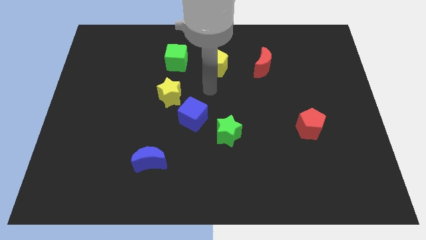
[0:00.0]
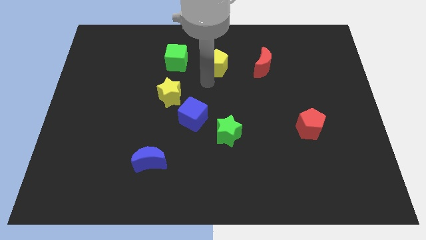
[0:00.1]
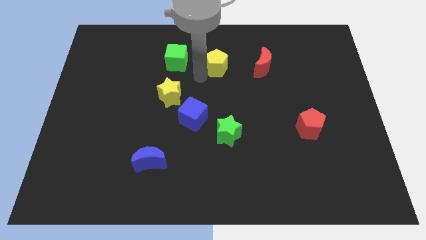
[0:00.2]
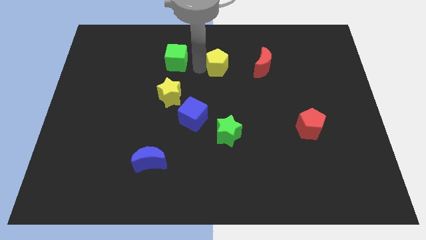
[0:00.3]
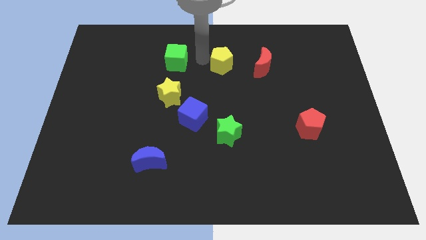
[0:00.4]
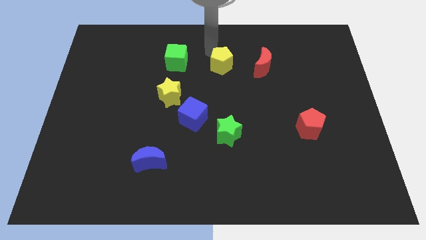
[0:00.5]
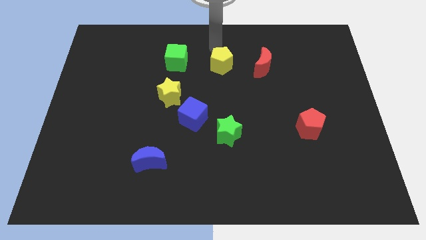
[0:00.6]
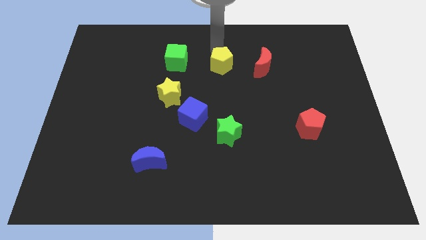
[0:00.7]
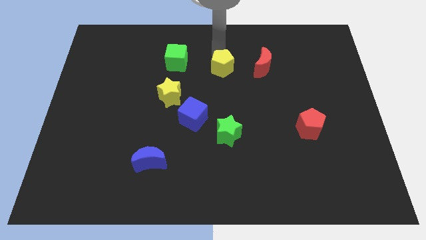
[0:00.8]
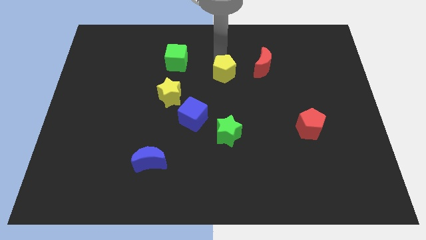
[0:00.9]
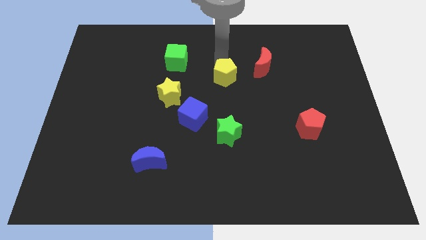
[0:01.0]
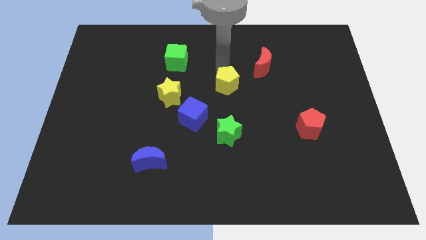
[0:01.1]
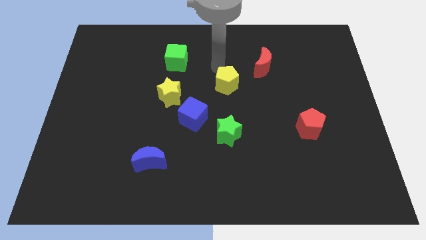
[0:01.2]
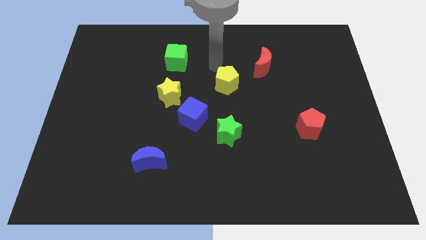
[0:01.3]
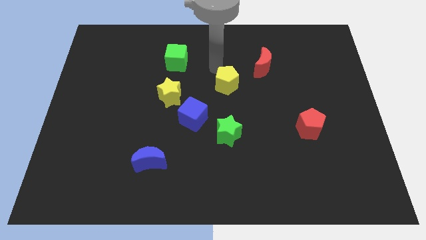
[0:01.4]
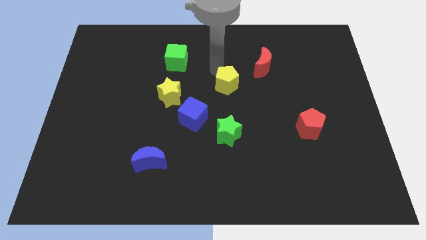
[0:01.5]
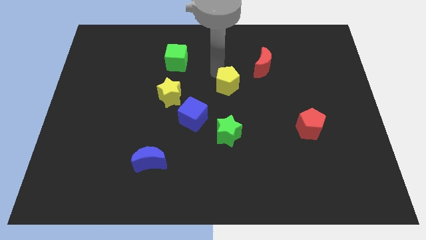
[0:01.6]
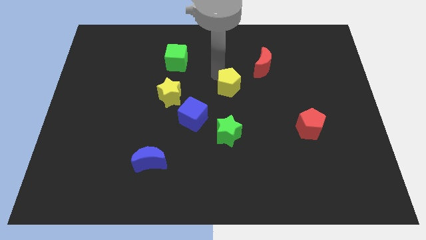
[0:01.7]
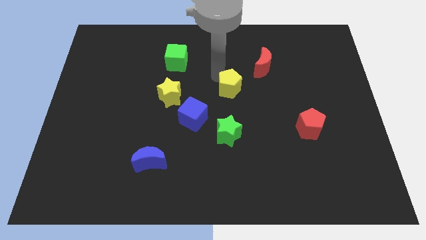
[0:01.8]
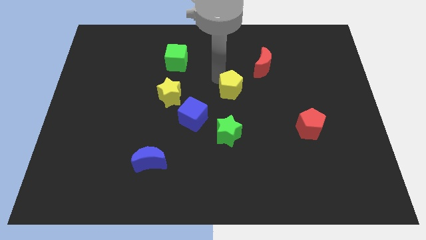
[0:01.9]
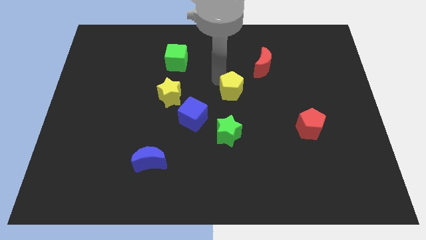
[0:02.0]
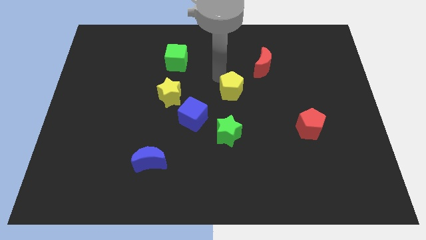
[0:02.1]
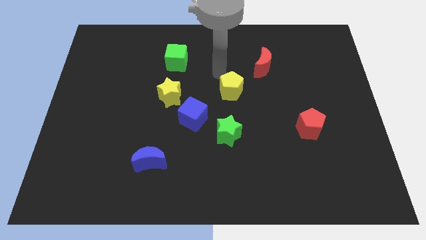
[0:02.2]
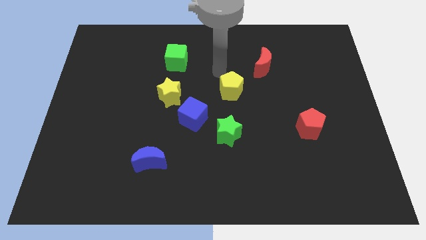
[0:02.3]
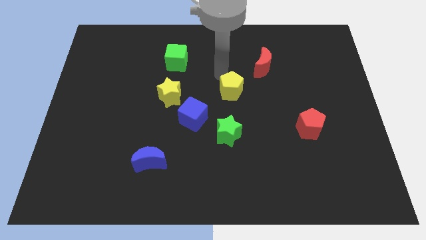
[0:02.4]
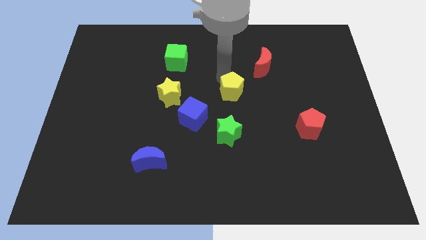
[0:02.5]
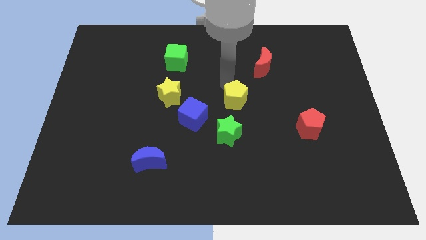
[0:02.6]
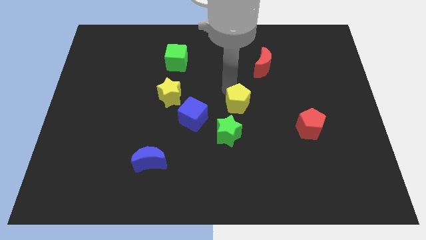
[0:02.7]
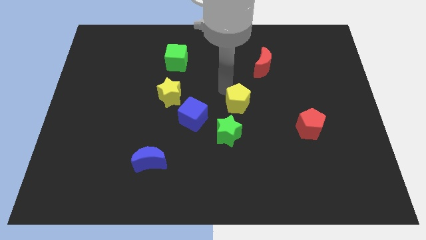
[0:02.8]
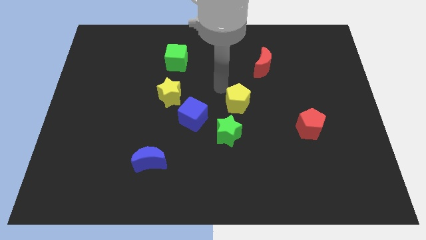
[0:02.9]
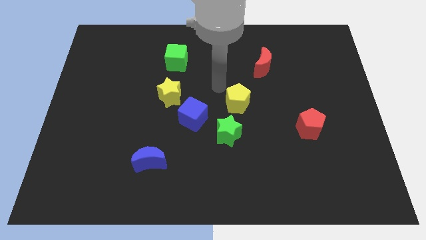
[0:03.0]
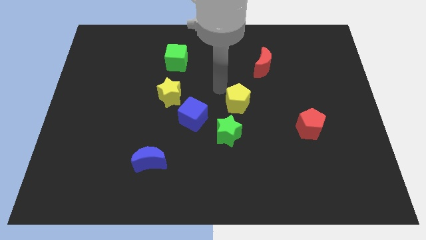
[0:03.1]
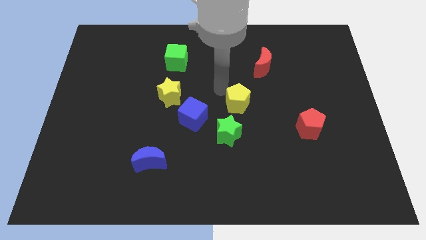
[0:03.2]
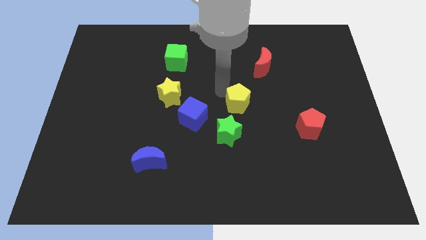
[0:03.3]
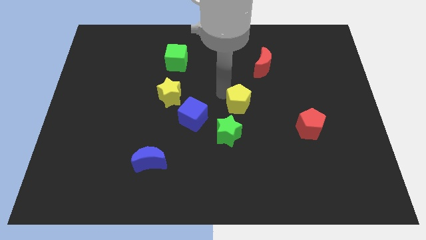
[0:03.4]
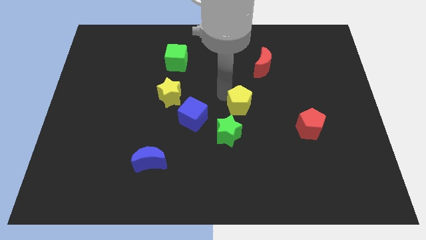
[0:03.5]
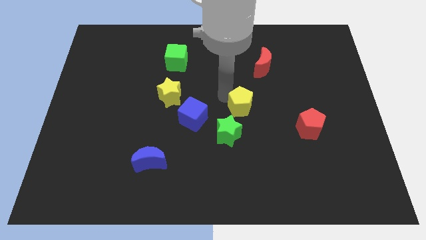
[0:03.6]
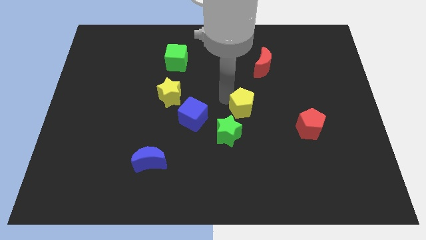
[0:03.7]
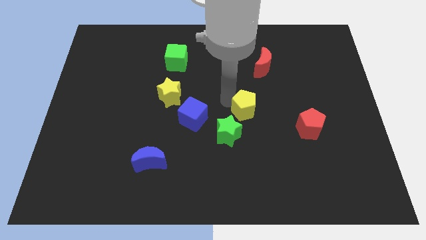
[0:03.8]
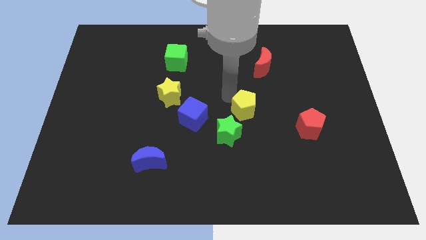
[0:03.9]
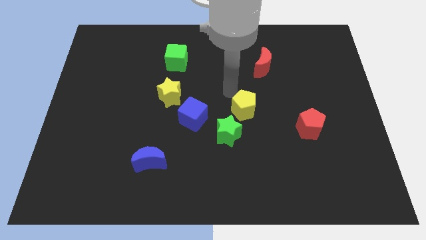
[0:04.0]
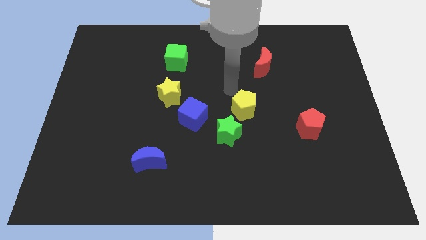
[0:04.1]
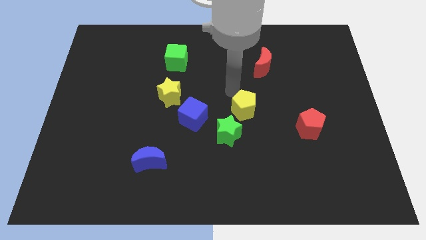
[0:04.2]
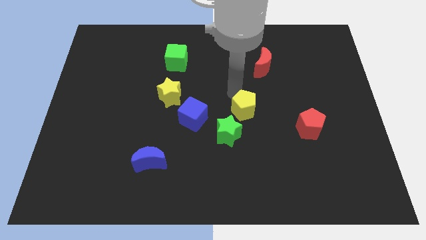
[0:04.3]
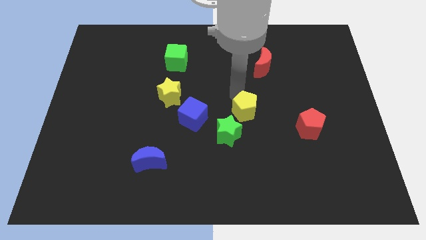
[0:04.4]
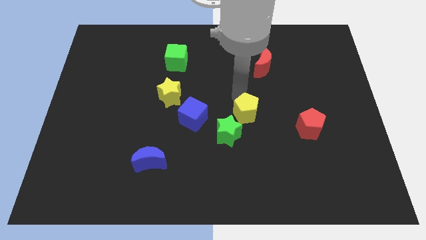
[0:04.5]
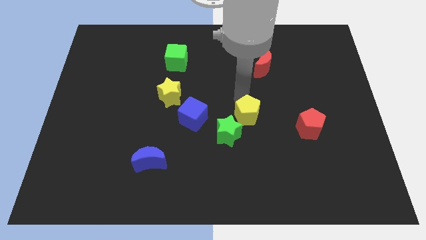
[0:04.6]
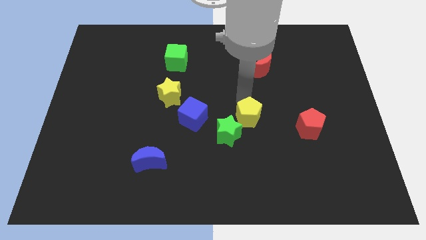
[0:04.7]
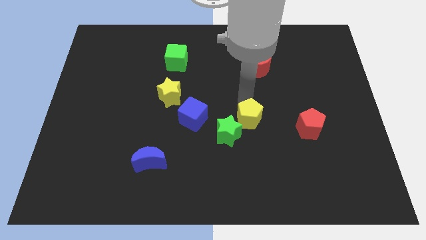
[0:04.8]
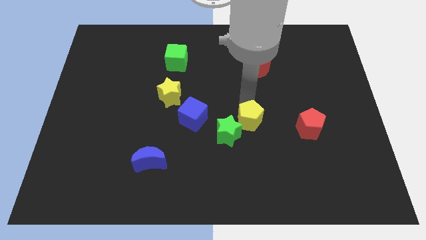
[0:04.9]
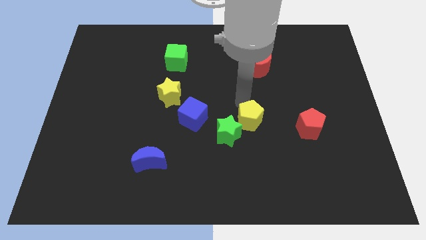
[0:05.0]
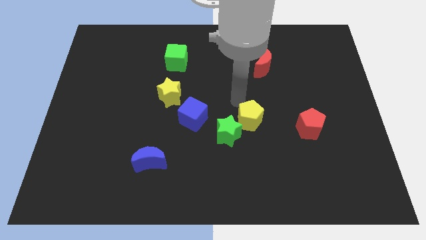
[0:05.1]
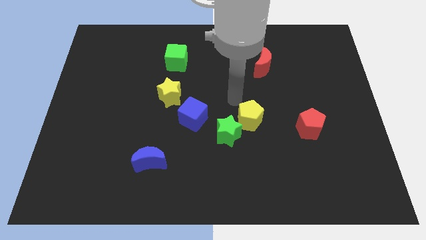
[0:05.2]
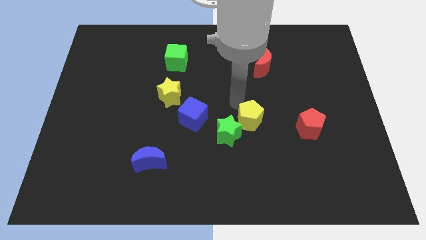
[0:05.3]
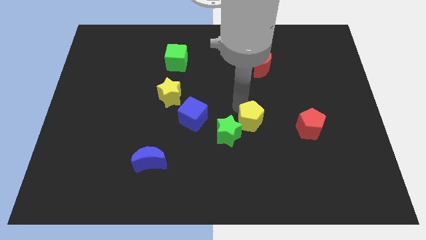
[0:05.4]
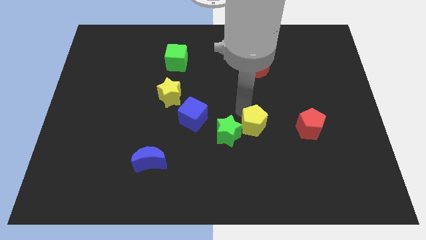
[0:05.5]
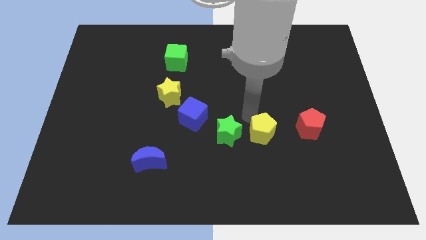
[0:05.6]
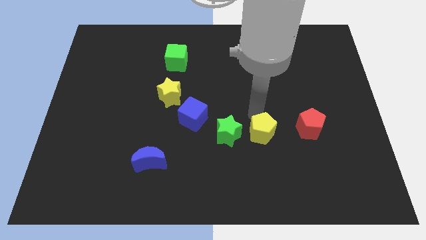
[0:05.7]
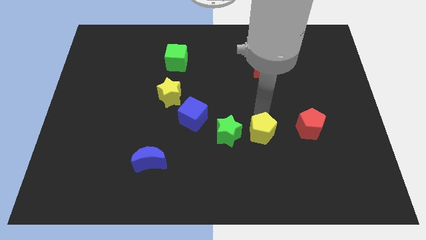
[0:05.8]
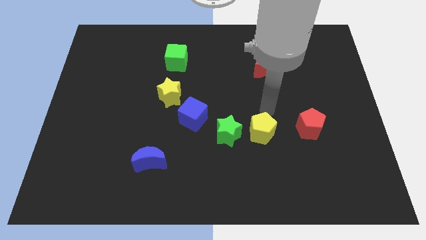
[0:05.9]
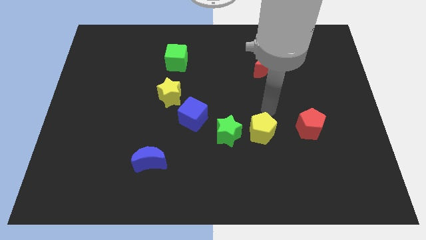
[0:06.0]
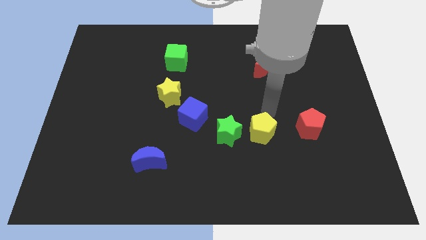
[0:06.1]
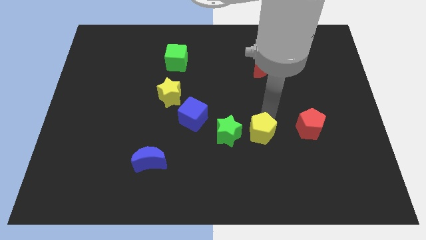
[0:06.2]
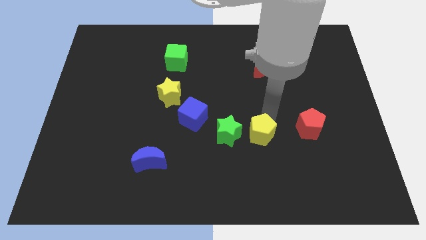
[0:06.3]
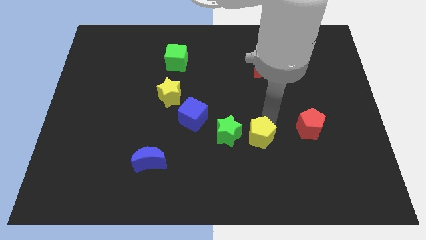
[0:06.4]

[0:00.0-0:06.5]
move the yellow pentagon to the bottom right of the green star
